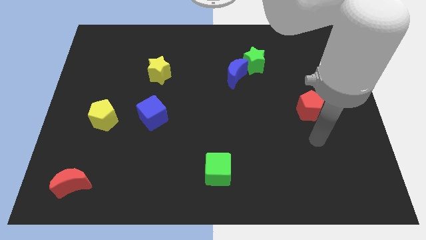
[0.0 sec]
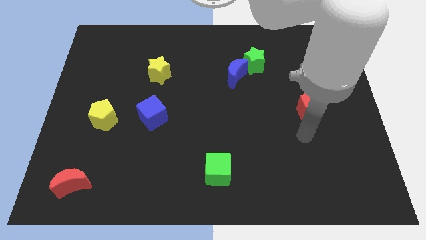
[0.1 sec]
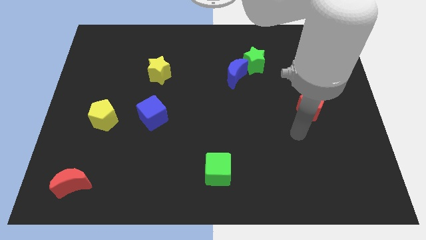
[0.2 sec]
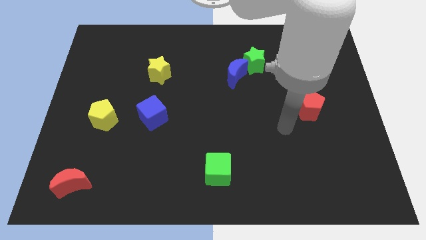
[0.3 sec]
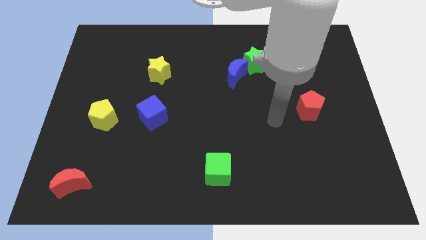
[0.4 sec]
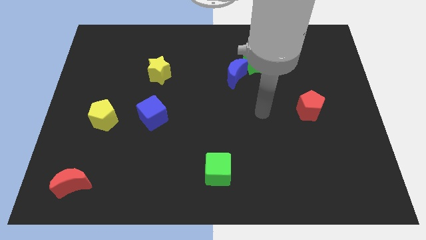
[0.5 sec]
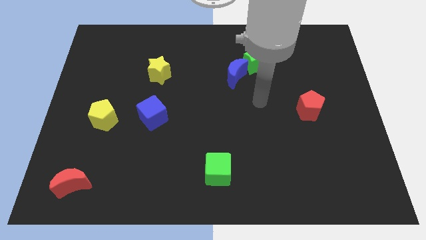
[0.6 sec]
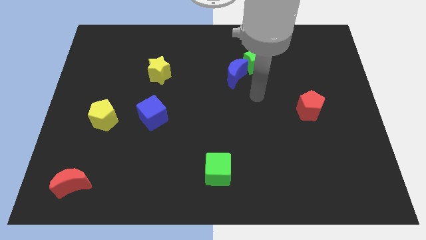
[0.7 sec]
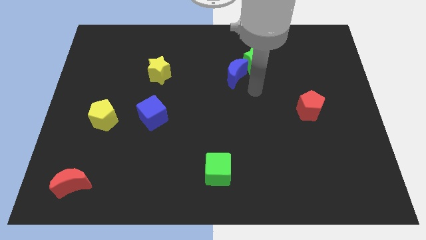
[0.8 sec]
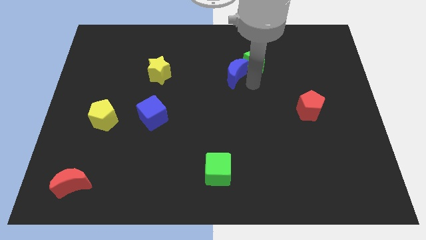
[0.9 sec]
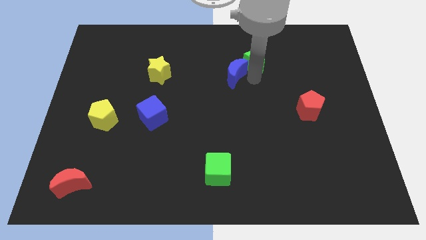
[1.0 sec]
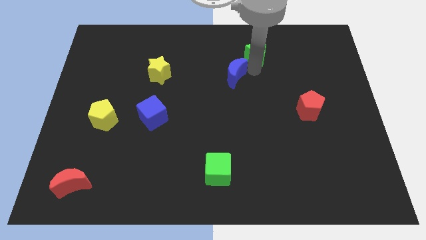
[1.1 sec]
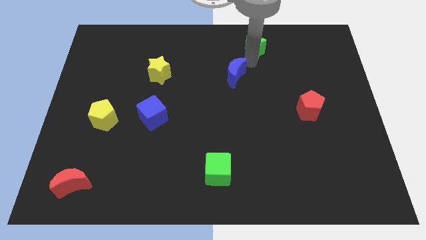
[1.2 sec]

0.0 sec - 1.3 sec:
move the blue moon away from the green star

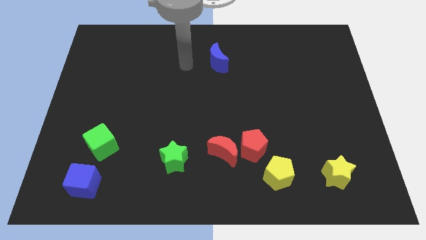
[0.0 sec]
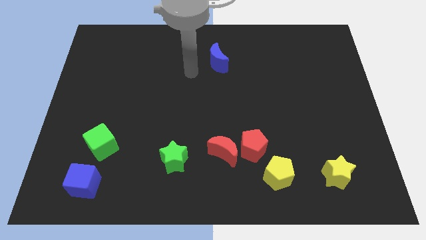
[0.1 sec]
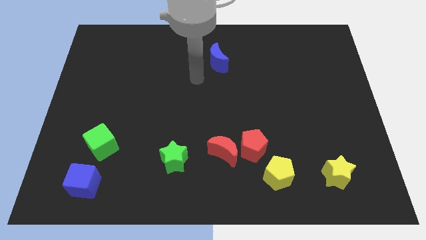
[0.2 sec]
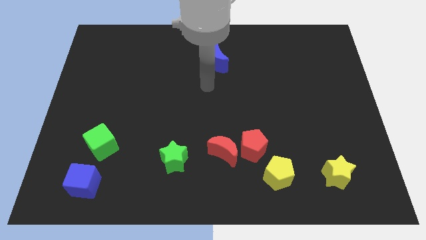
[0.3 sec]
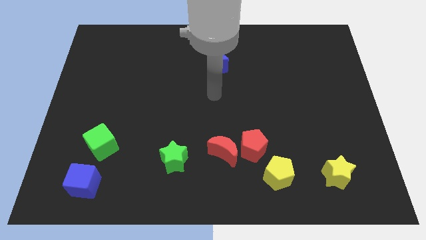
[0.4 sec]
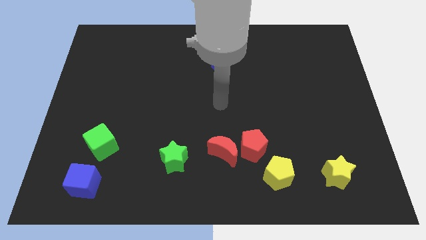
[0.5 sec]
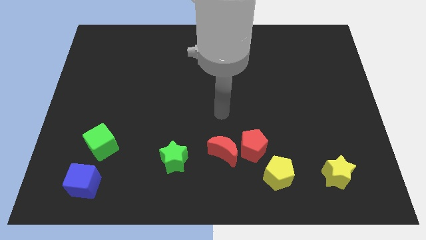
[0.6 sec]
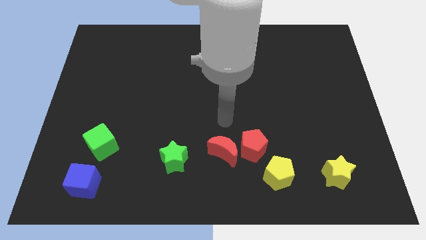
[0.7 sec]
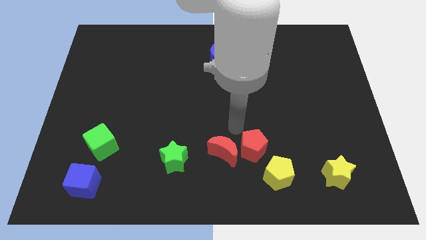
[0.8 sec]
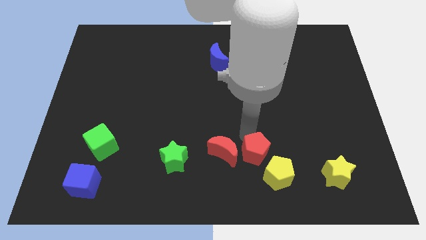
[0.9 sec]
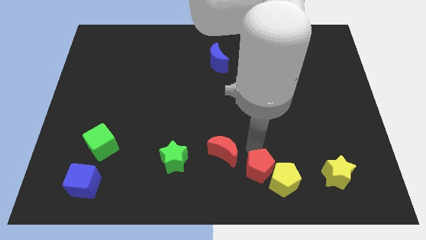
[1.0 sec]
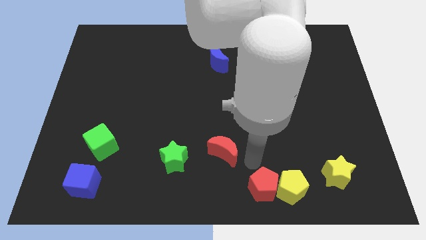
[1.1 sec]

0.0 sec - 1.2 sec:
move the red moon away from the red pentagon

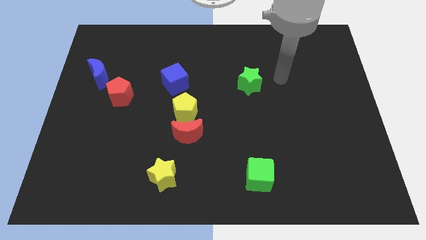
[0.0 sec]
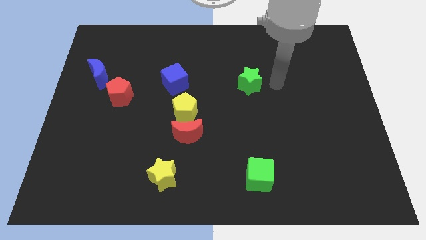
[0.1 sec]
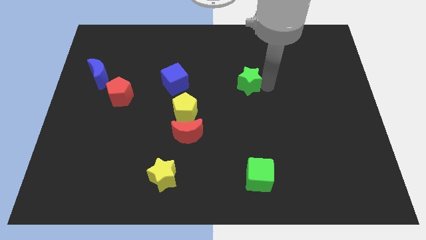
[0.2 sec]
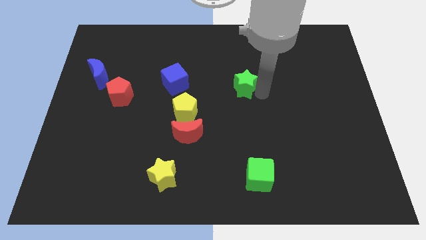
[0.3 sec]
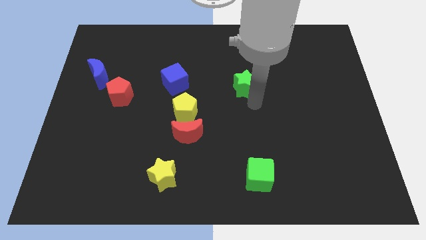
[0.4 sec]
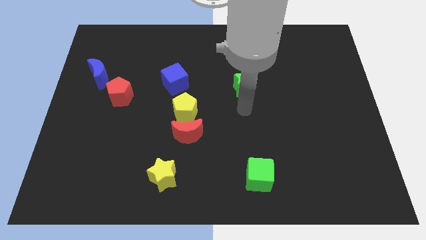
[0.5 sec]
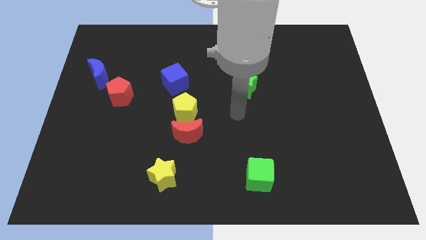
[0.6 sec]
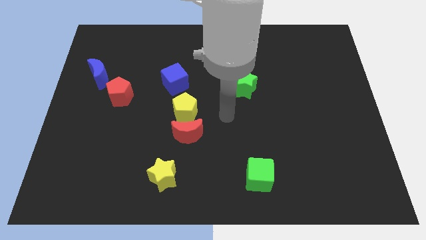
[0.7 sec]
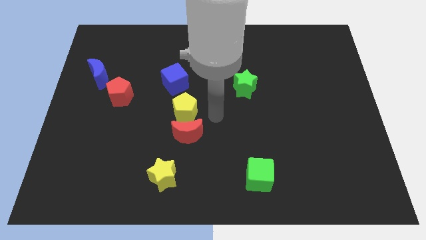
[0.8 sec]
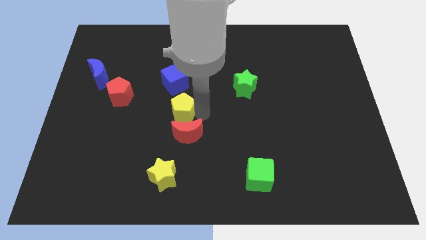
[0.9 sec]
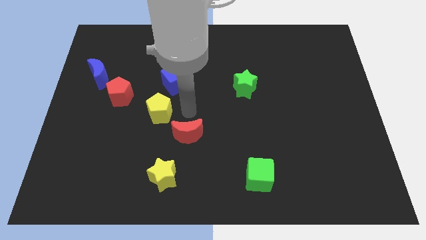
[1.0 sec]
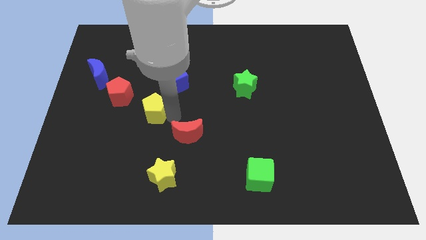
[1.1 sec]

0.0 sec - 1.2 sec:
separate the red moon from the yellow pentagon

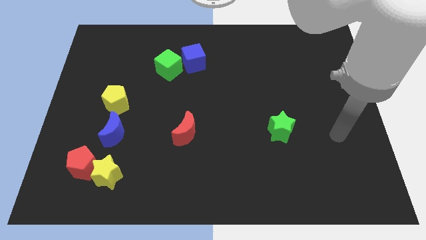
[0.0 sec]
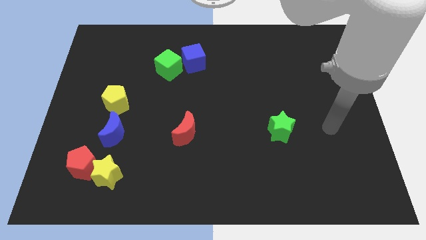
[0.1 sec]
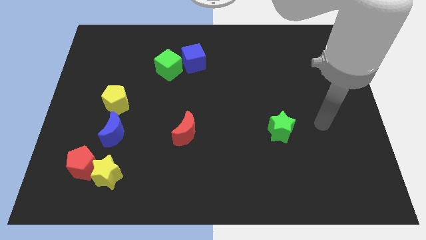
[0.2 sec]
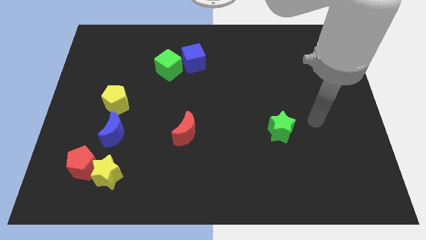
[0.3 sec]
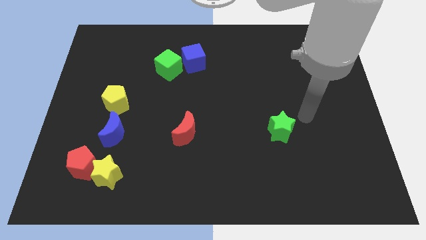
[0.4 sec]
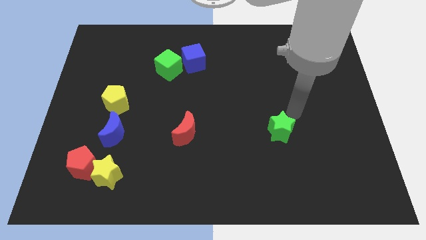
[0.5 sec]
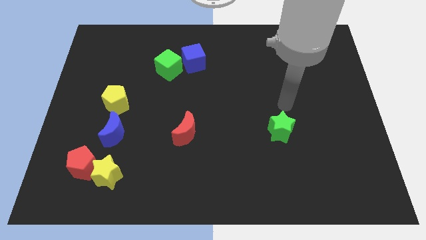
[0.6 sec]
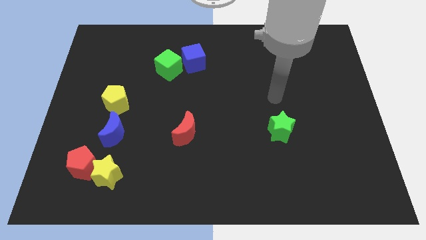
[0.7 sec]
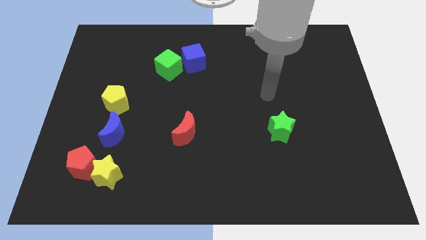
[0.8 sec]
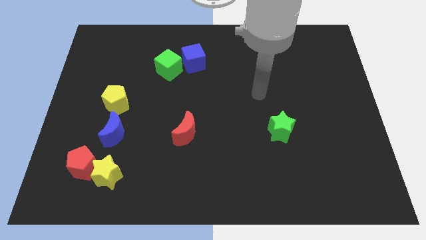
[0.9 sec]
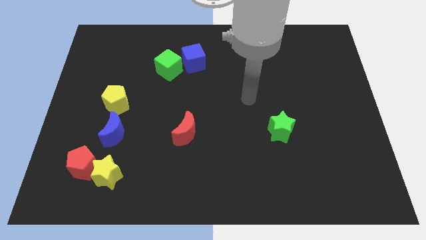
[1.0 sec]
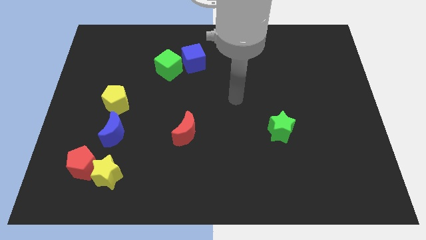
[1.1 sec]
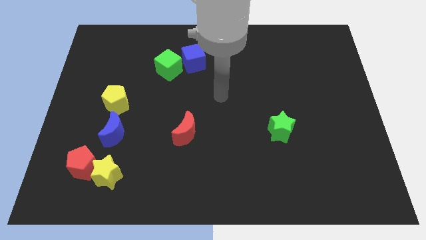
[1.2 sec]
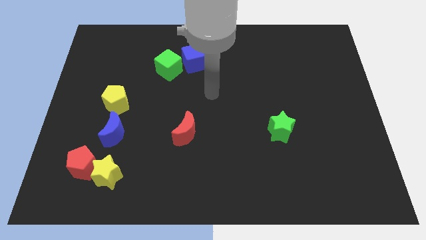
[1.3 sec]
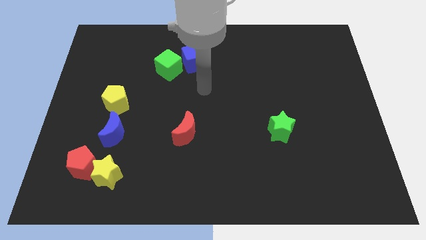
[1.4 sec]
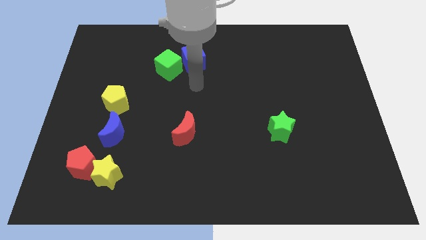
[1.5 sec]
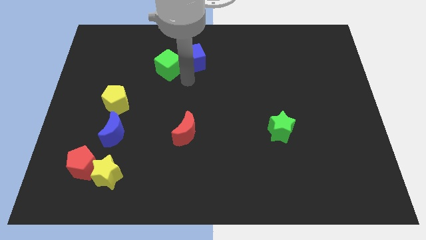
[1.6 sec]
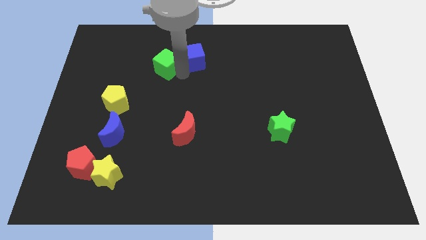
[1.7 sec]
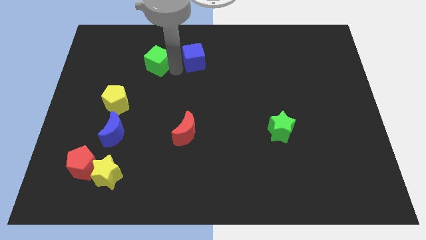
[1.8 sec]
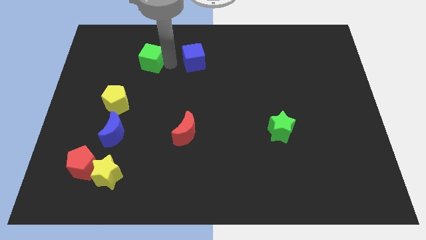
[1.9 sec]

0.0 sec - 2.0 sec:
pull the blue cube apart from the green cube

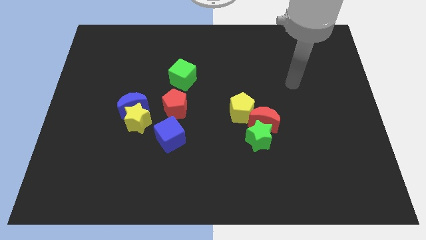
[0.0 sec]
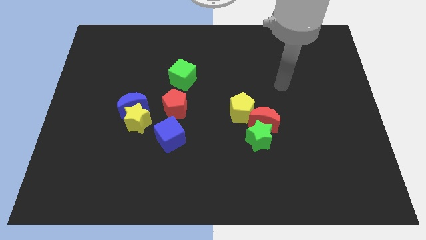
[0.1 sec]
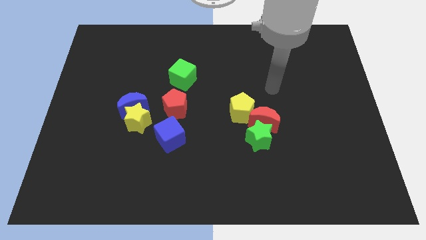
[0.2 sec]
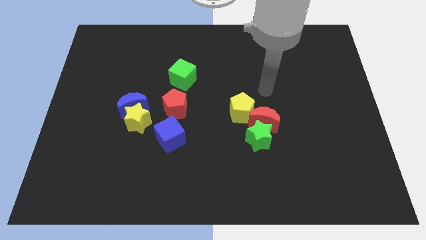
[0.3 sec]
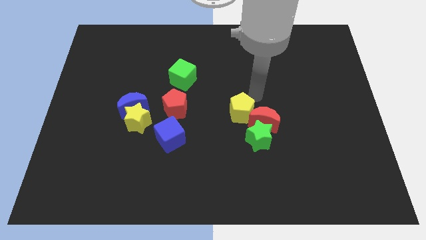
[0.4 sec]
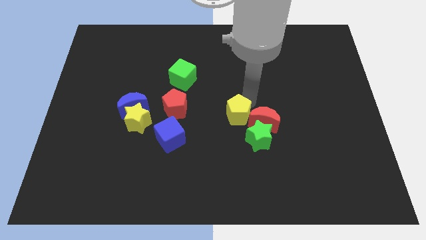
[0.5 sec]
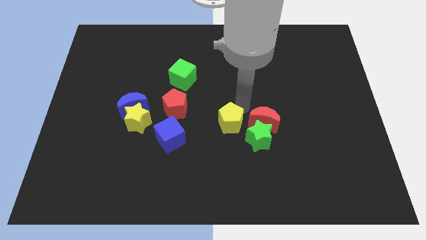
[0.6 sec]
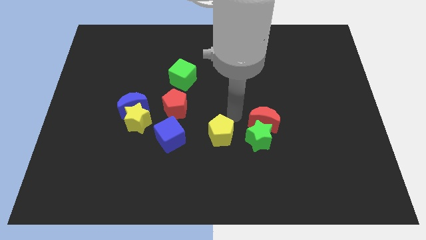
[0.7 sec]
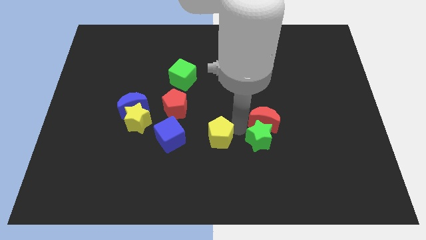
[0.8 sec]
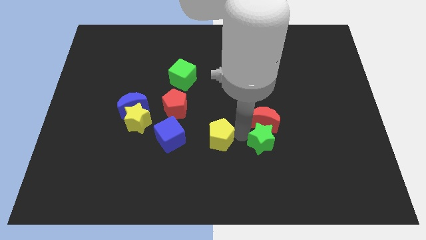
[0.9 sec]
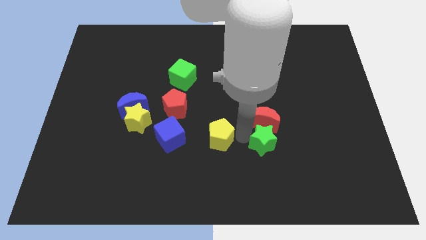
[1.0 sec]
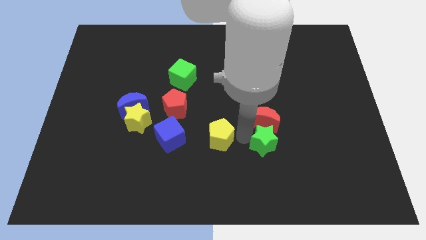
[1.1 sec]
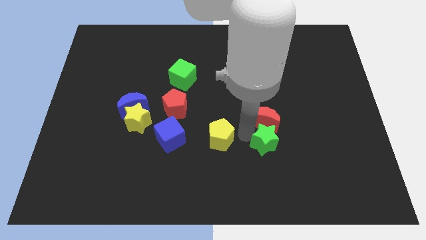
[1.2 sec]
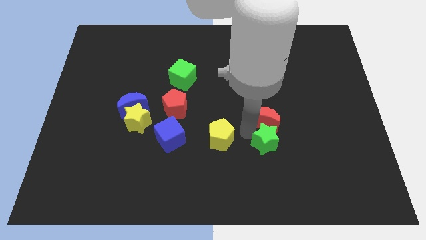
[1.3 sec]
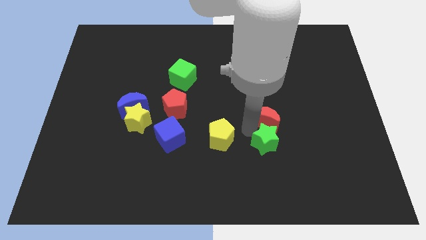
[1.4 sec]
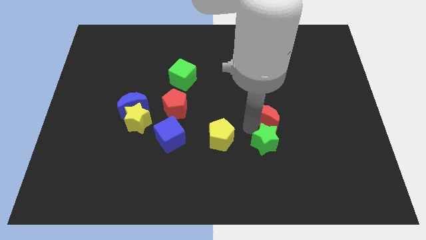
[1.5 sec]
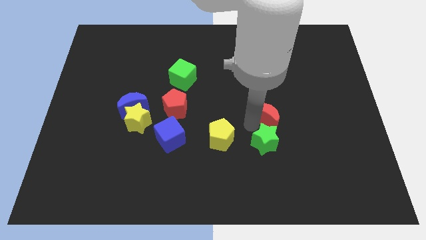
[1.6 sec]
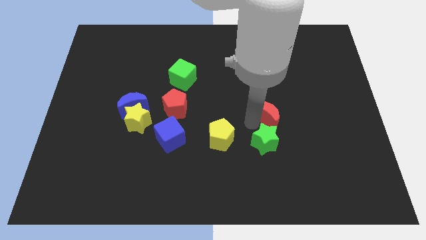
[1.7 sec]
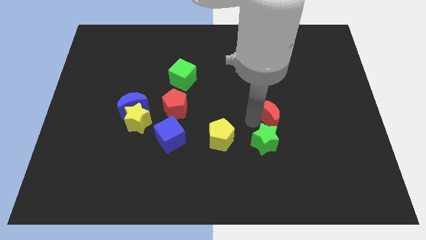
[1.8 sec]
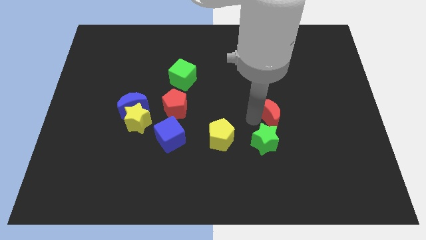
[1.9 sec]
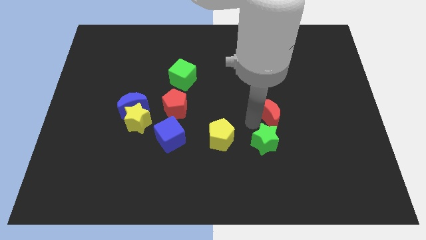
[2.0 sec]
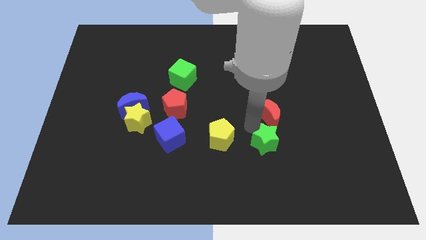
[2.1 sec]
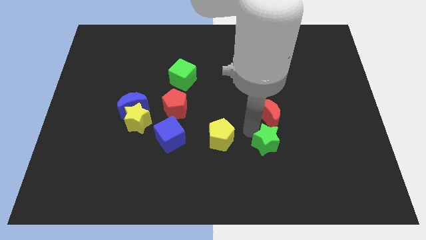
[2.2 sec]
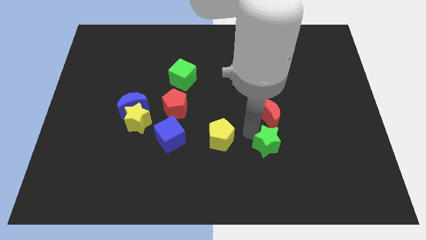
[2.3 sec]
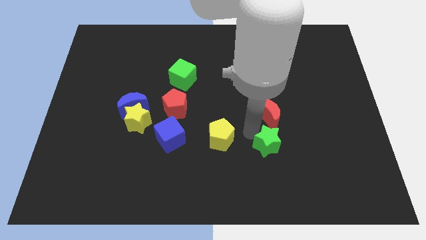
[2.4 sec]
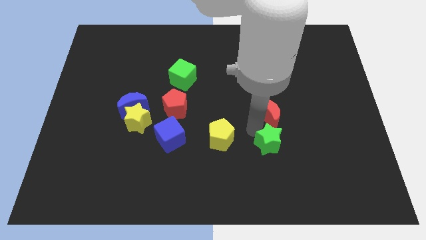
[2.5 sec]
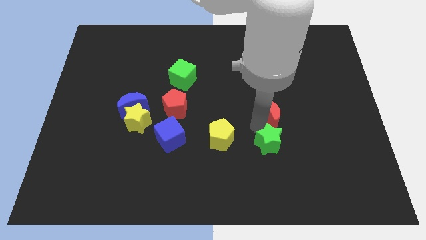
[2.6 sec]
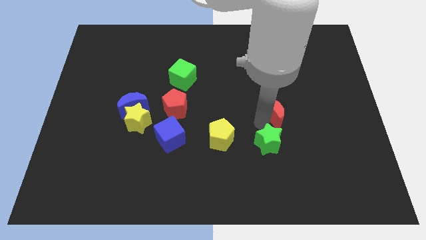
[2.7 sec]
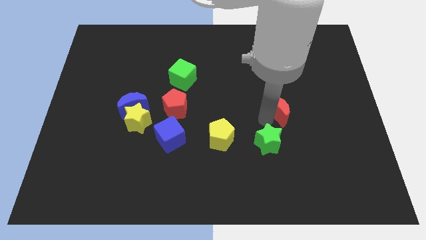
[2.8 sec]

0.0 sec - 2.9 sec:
move the red moon away from the green star and yellow pentagon

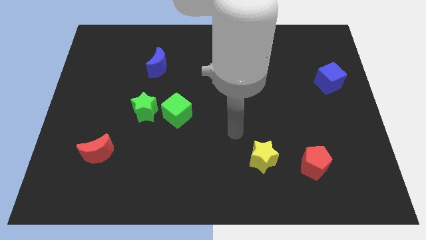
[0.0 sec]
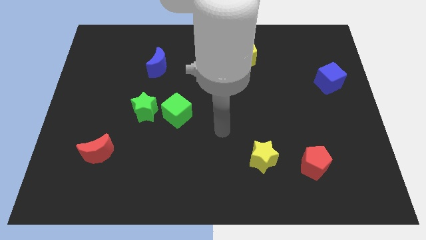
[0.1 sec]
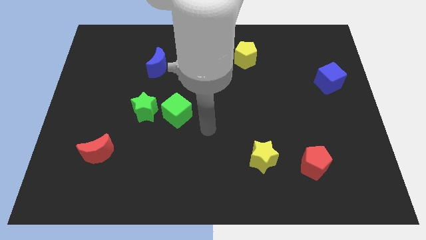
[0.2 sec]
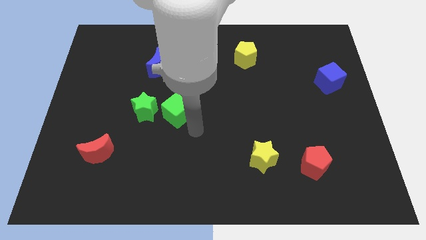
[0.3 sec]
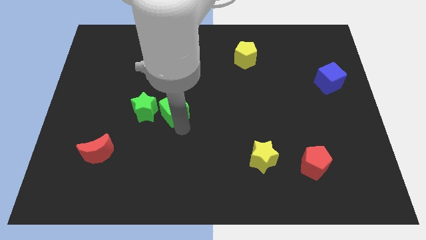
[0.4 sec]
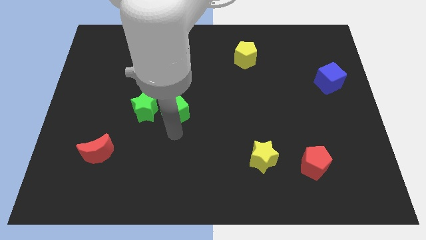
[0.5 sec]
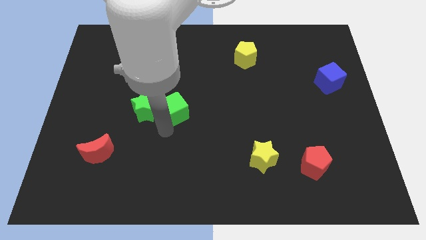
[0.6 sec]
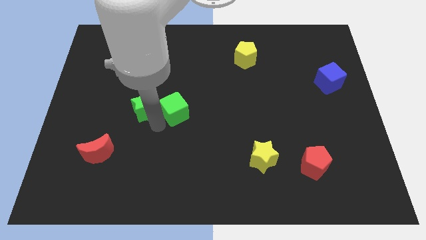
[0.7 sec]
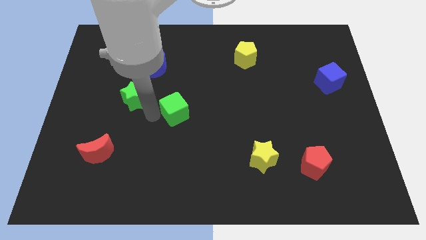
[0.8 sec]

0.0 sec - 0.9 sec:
move the green cube away from the green star

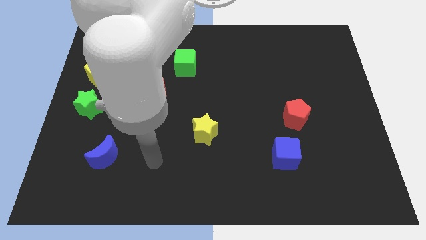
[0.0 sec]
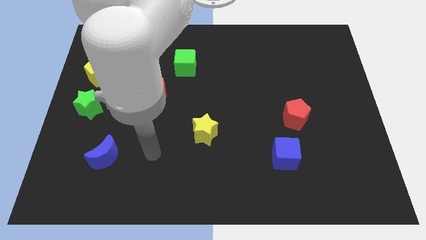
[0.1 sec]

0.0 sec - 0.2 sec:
move the green star away from the yellow pentagon
